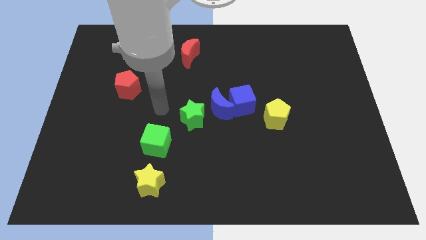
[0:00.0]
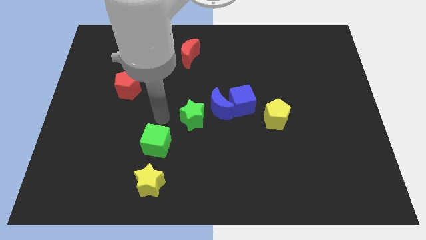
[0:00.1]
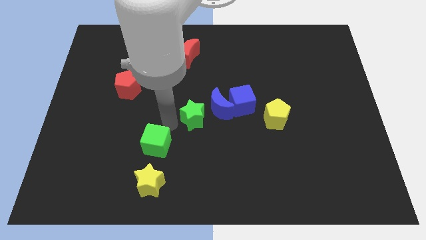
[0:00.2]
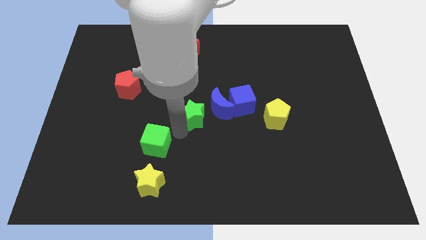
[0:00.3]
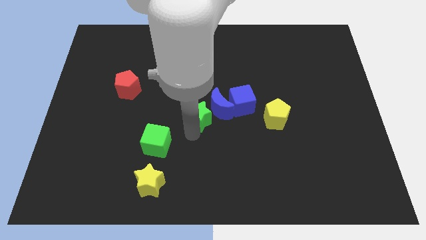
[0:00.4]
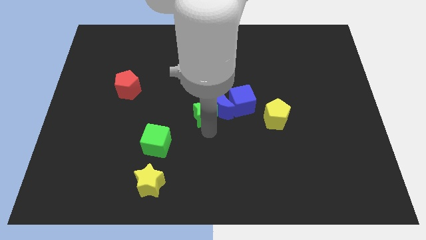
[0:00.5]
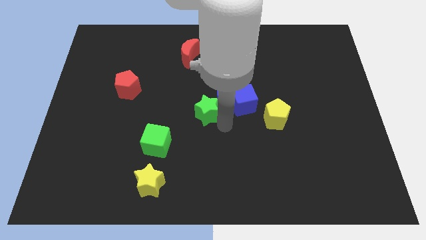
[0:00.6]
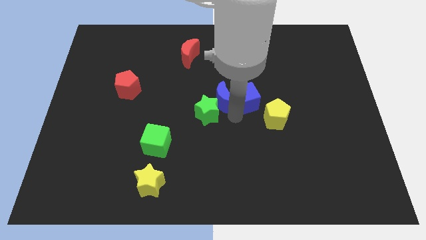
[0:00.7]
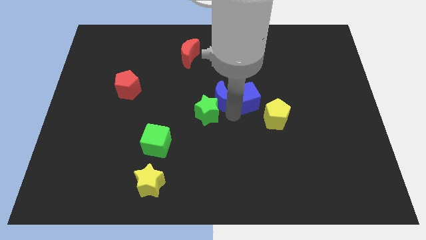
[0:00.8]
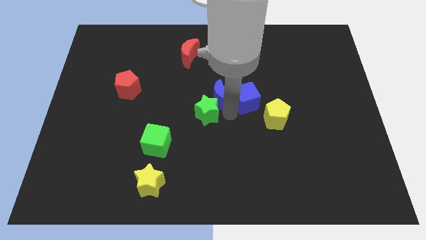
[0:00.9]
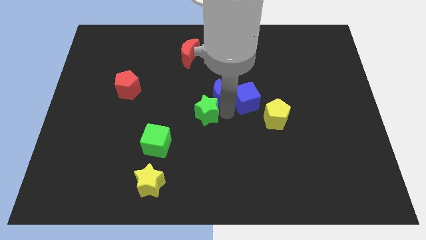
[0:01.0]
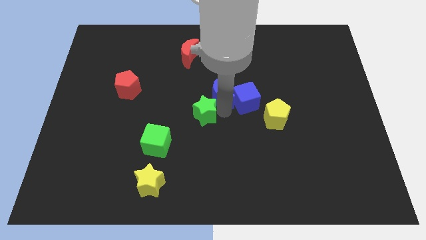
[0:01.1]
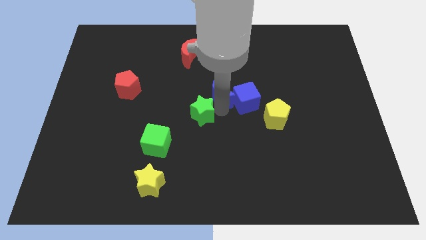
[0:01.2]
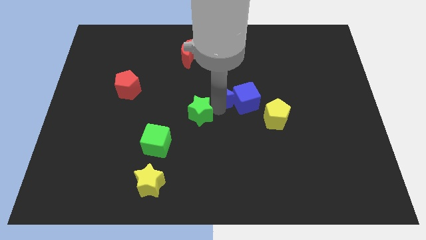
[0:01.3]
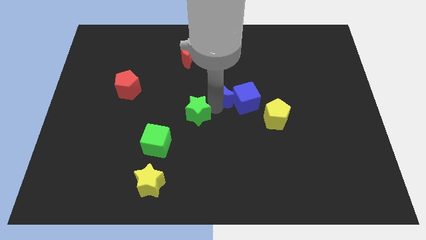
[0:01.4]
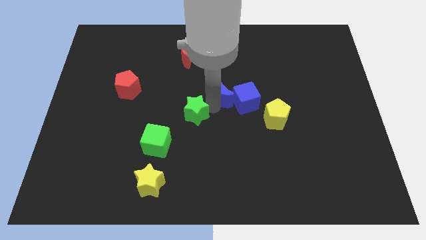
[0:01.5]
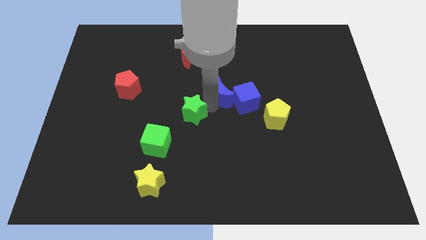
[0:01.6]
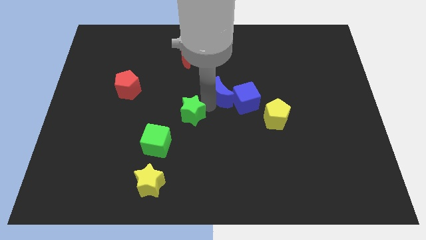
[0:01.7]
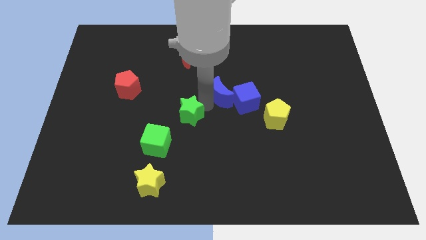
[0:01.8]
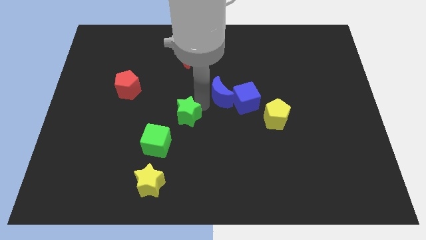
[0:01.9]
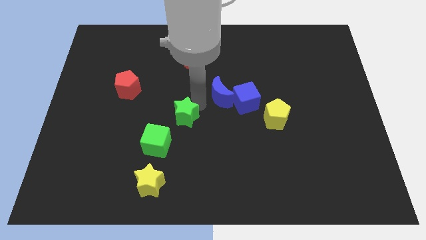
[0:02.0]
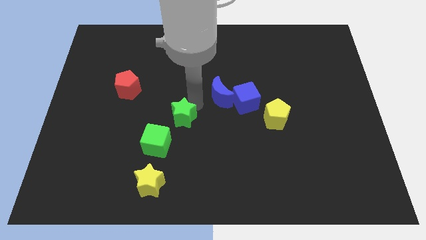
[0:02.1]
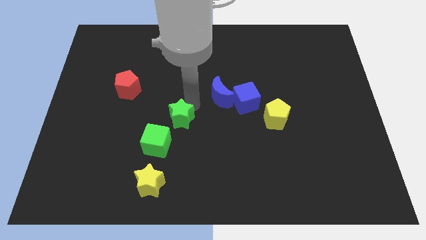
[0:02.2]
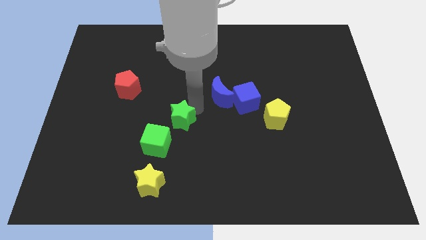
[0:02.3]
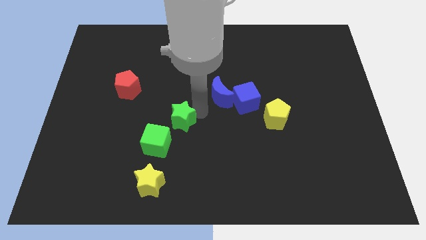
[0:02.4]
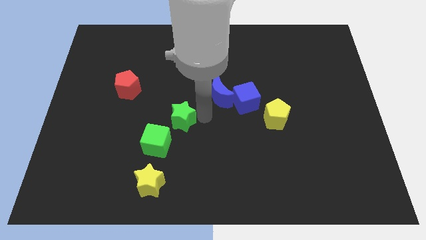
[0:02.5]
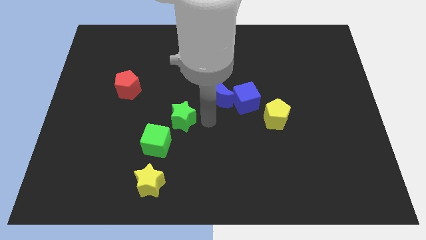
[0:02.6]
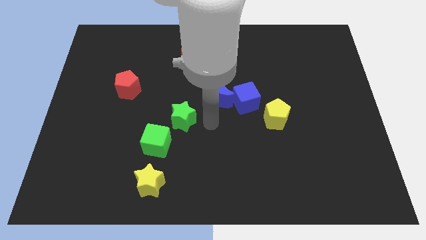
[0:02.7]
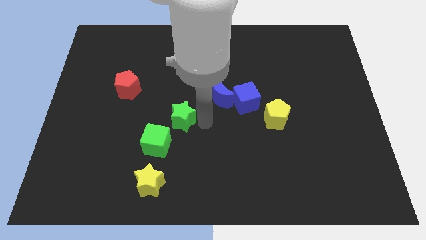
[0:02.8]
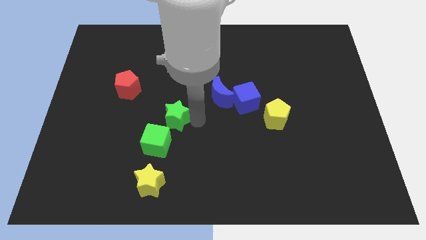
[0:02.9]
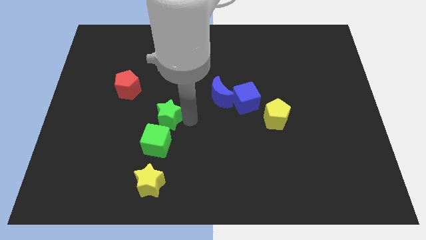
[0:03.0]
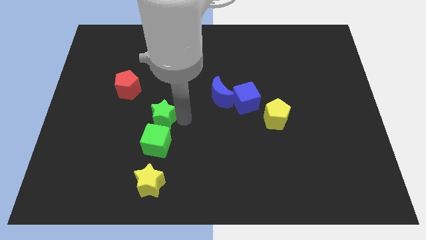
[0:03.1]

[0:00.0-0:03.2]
slightly move the green star to the left

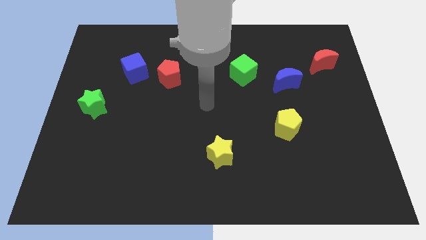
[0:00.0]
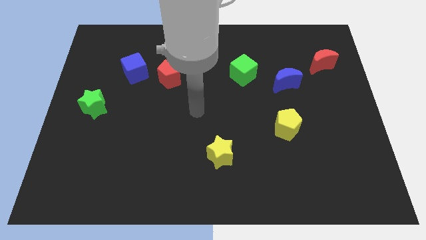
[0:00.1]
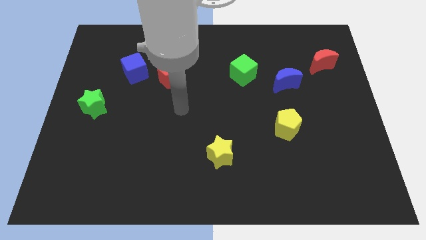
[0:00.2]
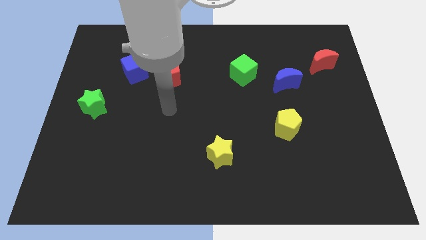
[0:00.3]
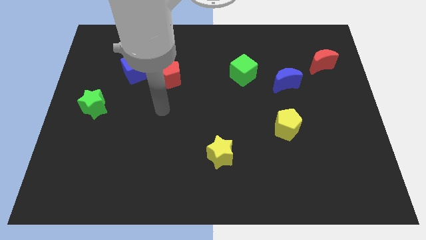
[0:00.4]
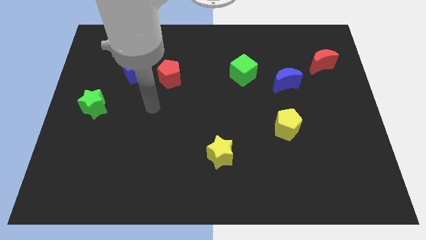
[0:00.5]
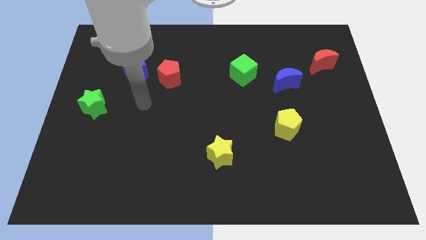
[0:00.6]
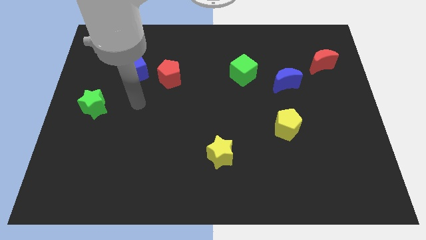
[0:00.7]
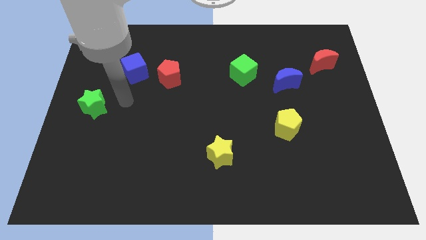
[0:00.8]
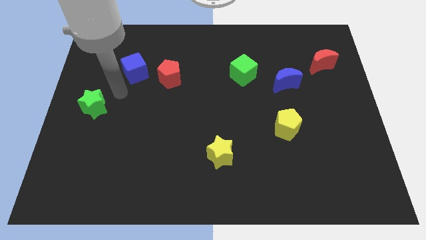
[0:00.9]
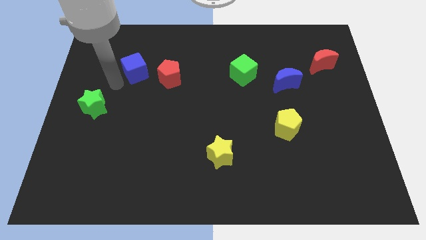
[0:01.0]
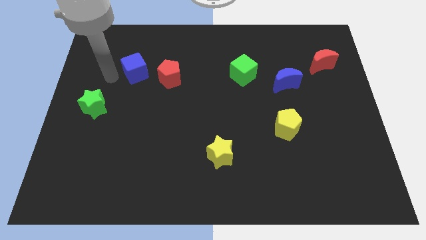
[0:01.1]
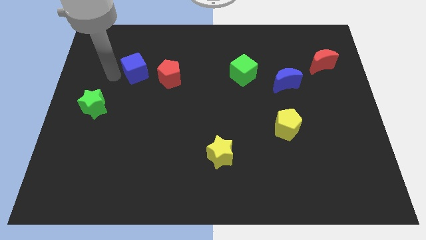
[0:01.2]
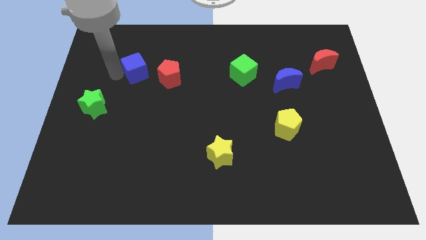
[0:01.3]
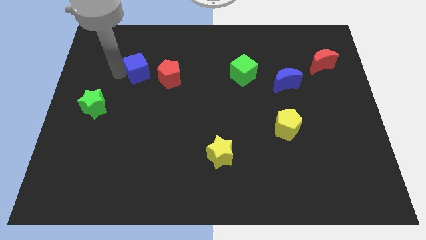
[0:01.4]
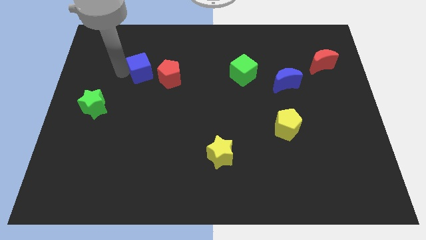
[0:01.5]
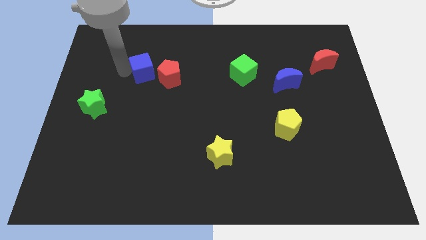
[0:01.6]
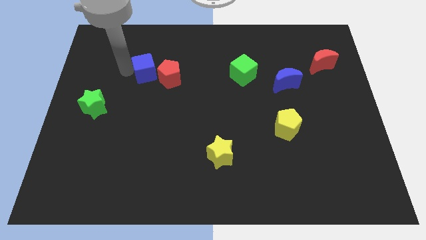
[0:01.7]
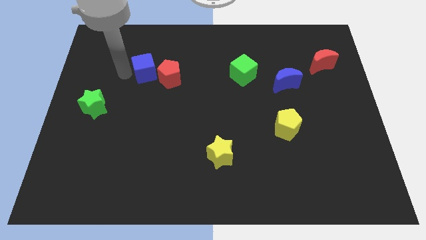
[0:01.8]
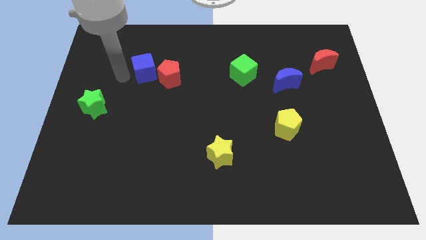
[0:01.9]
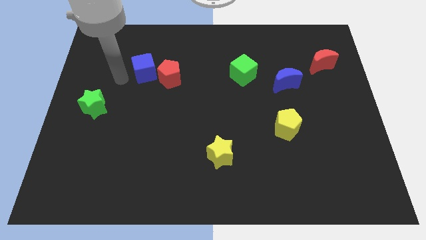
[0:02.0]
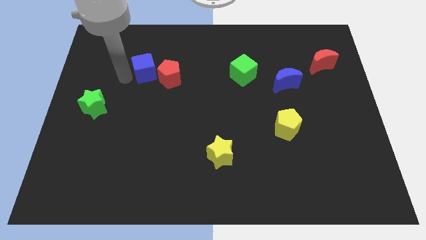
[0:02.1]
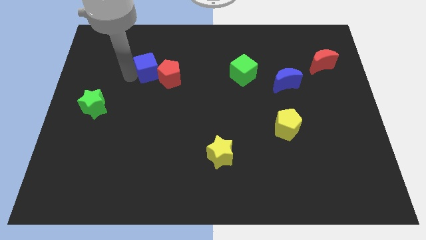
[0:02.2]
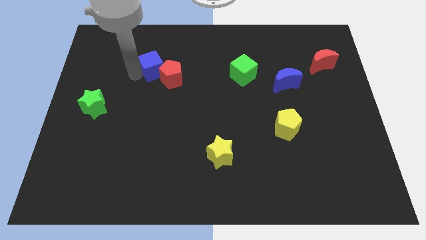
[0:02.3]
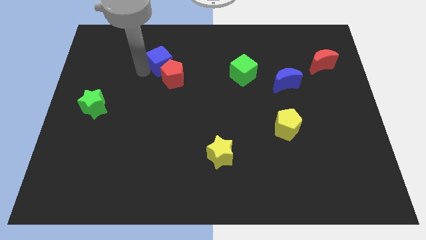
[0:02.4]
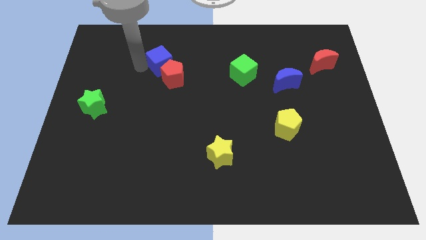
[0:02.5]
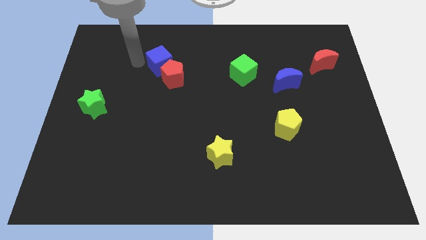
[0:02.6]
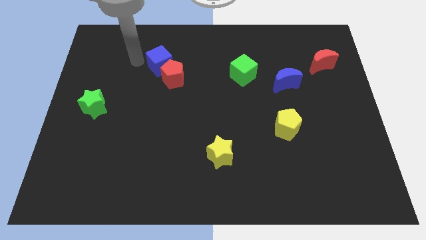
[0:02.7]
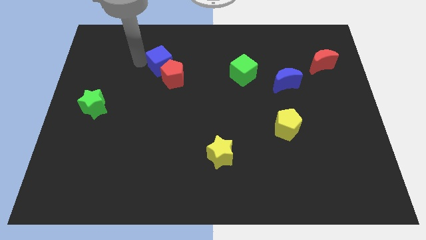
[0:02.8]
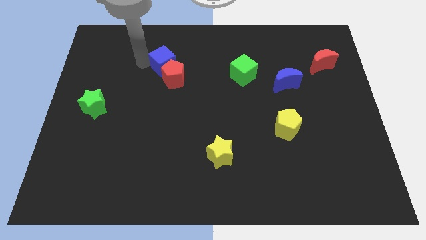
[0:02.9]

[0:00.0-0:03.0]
push the blue cube a little right

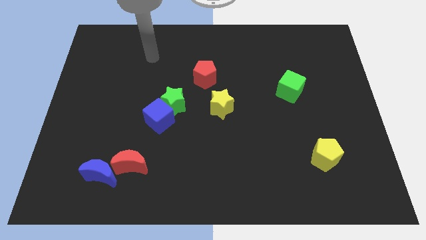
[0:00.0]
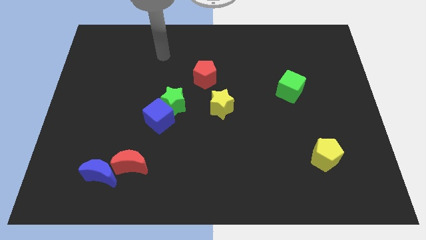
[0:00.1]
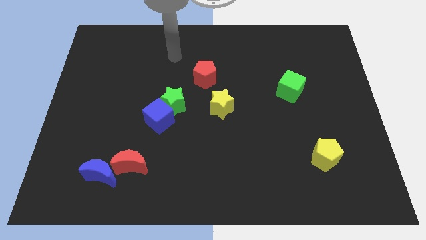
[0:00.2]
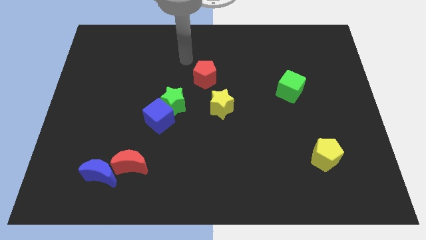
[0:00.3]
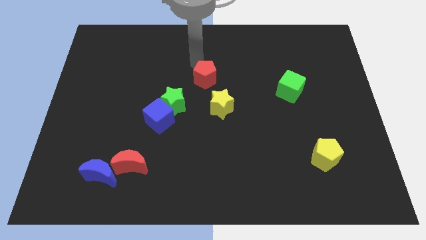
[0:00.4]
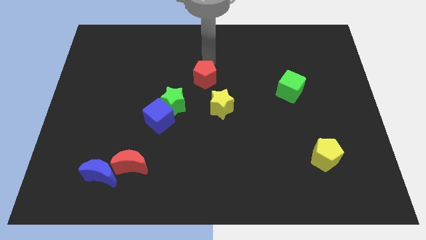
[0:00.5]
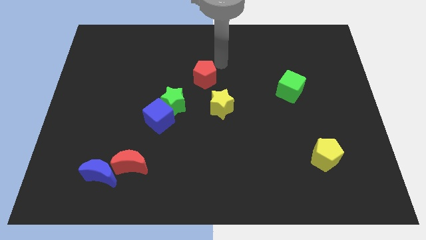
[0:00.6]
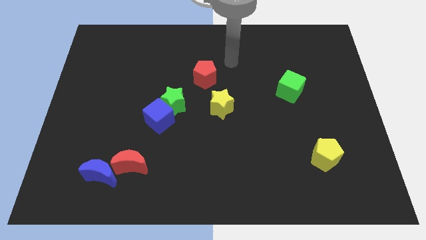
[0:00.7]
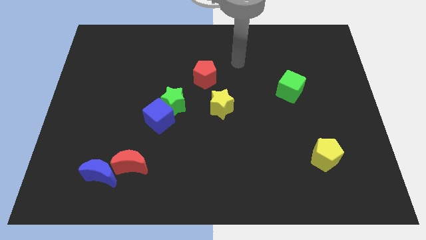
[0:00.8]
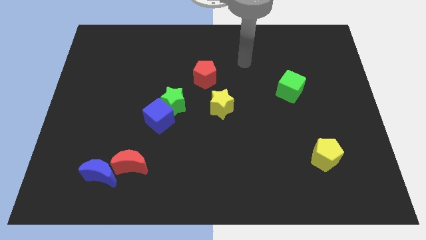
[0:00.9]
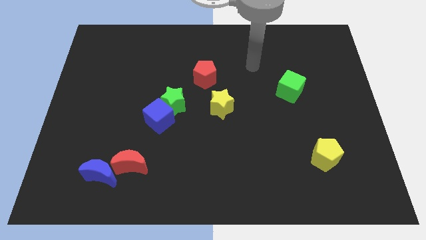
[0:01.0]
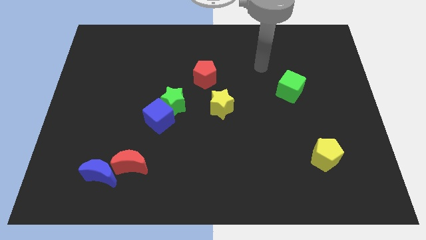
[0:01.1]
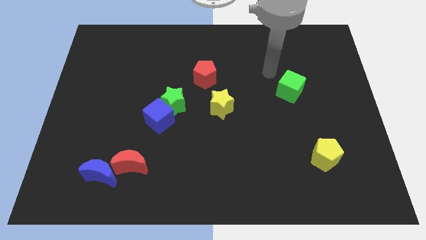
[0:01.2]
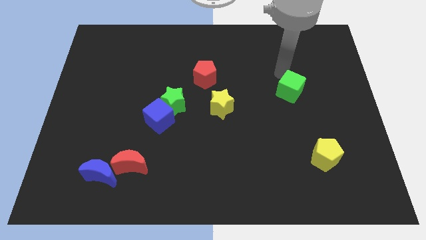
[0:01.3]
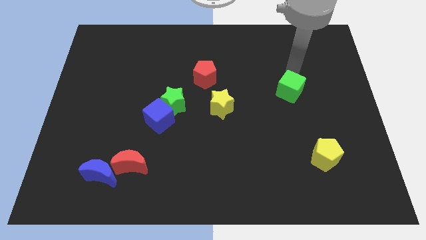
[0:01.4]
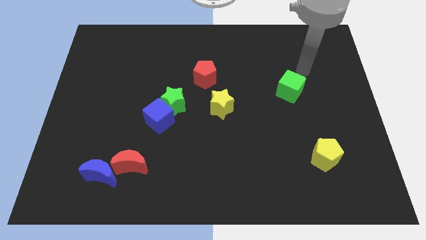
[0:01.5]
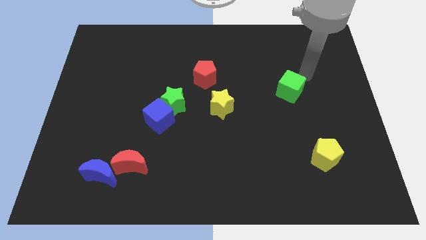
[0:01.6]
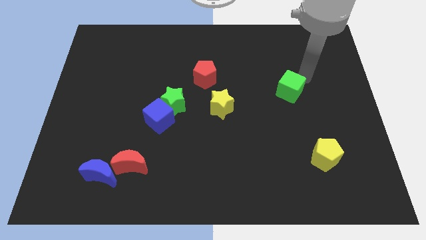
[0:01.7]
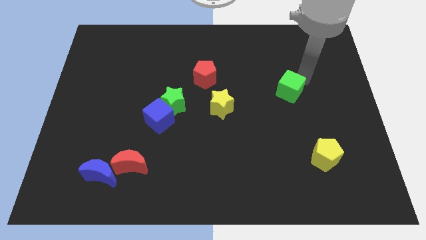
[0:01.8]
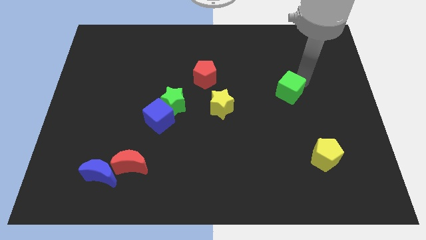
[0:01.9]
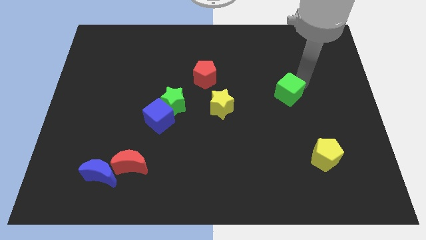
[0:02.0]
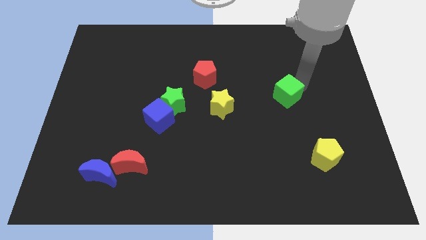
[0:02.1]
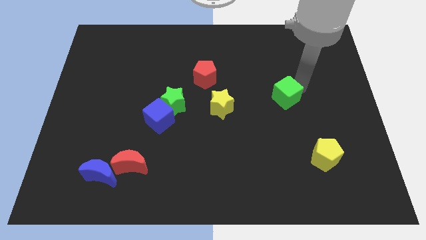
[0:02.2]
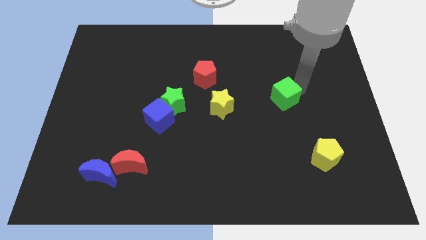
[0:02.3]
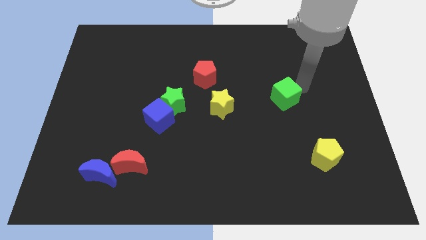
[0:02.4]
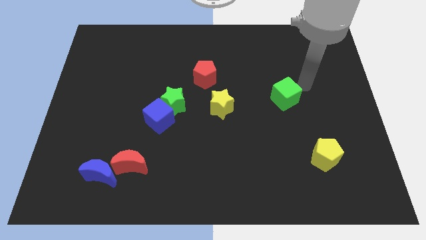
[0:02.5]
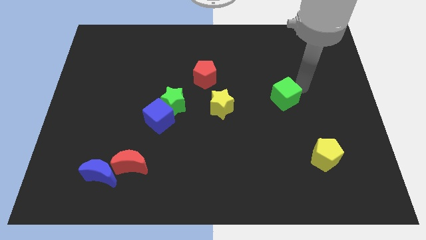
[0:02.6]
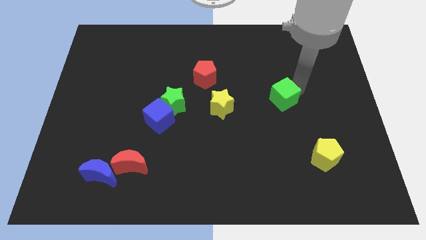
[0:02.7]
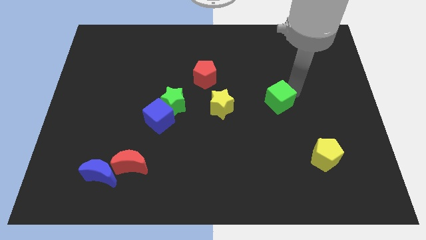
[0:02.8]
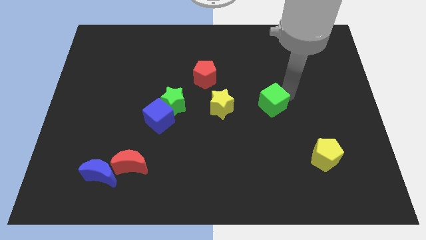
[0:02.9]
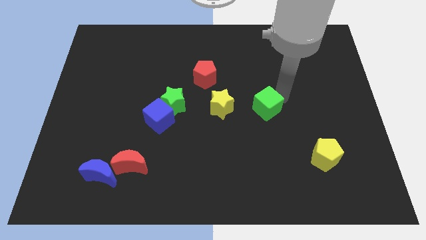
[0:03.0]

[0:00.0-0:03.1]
push the green cube downwards and then to the left a bit
